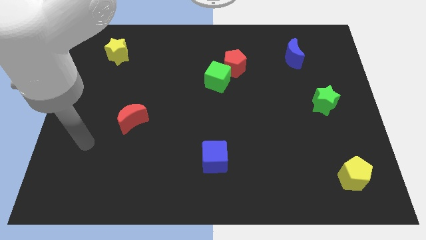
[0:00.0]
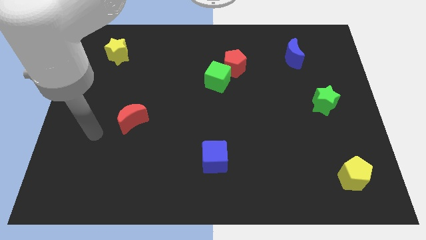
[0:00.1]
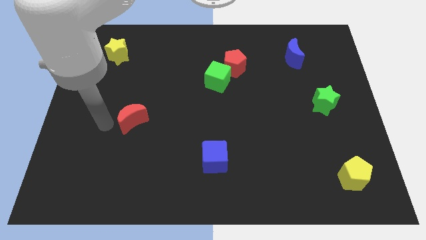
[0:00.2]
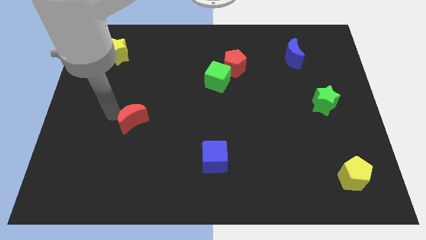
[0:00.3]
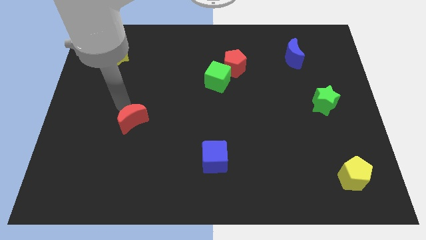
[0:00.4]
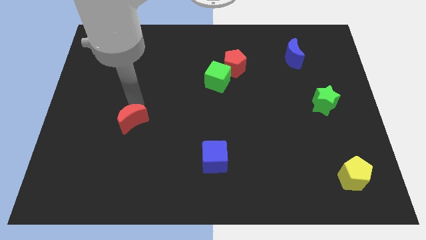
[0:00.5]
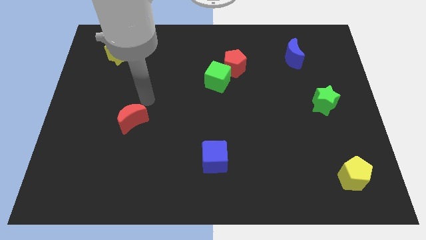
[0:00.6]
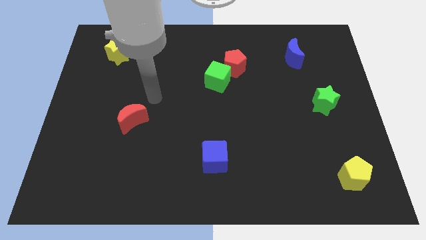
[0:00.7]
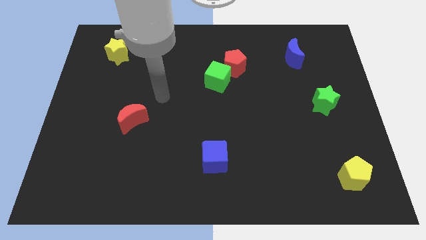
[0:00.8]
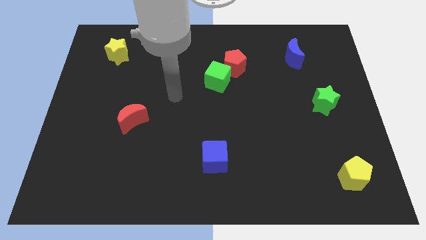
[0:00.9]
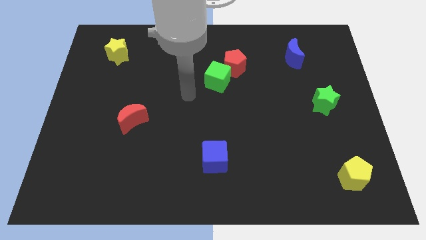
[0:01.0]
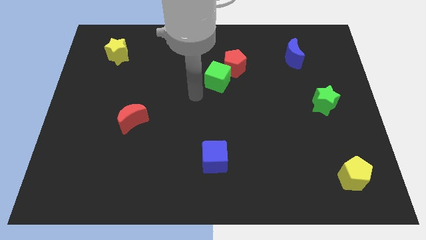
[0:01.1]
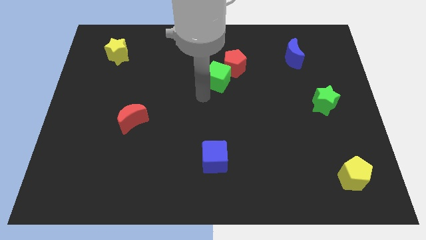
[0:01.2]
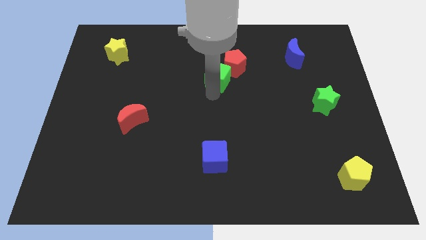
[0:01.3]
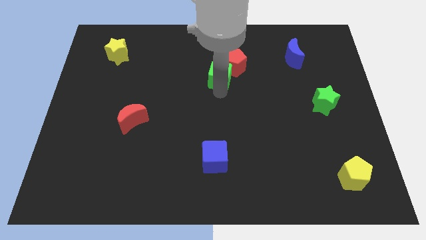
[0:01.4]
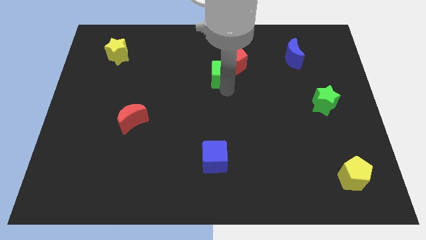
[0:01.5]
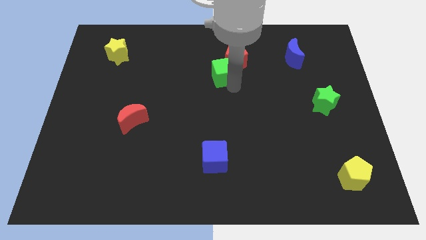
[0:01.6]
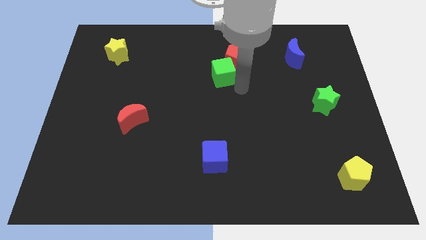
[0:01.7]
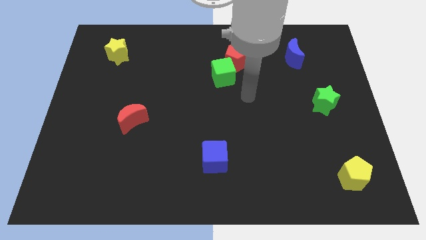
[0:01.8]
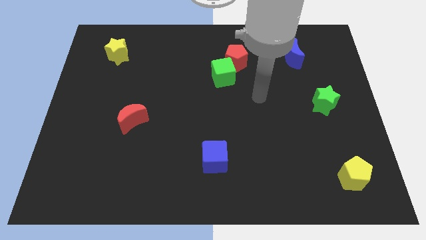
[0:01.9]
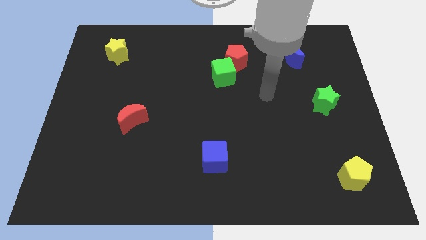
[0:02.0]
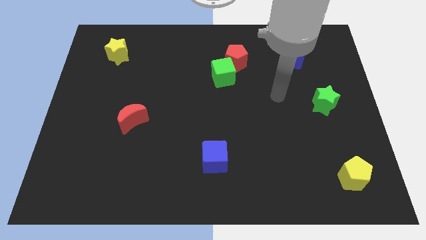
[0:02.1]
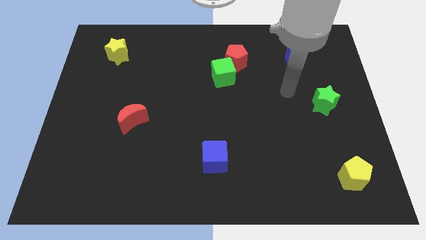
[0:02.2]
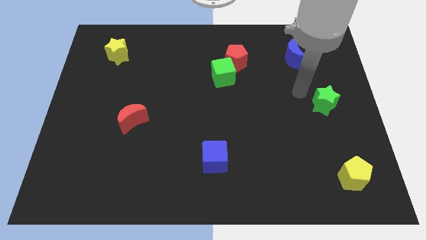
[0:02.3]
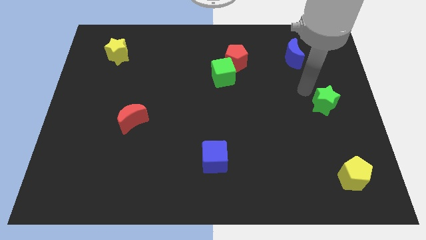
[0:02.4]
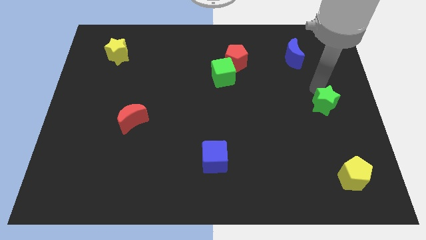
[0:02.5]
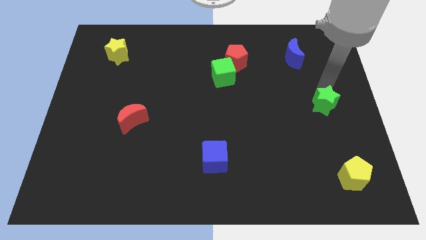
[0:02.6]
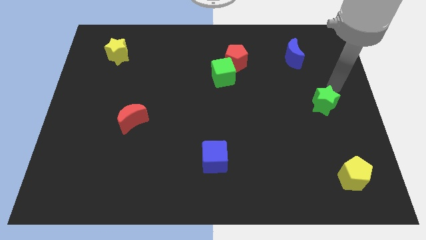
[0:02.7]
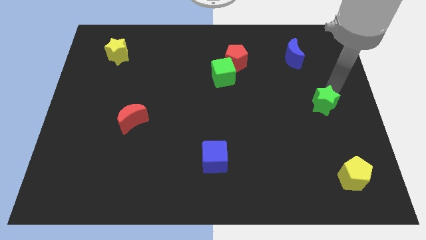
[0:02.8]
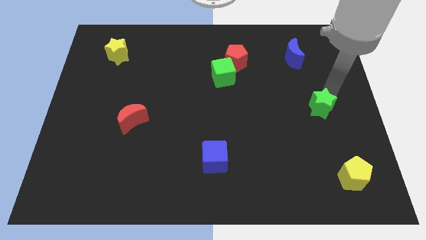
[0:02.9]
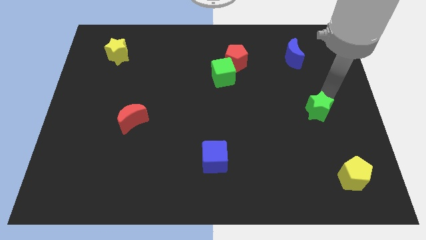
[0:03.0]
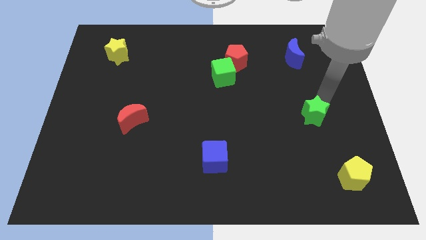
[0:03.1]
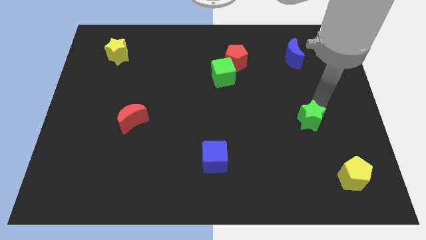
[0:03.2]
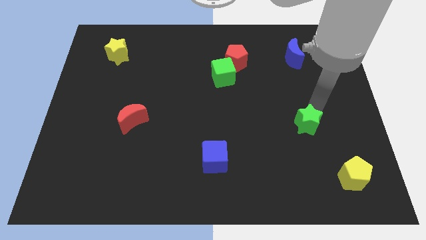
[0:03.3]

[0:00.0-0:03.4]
slightly slide the green star downwards and left diagonally

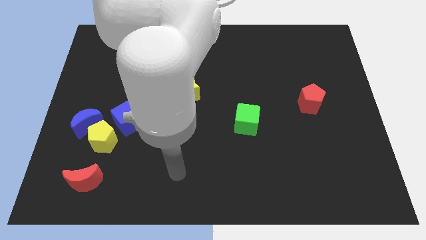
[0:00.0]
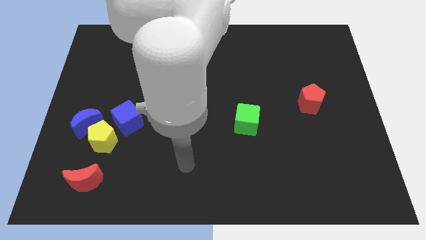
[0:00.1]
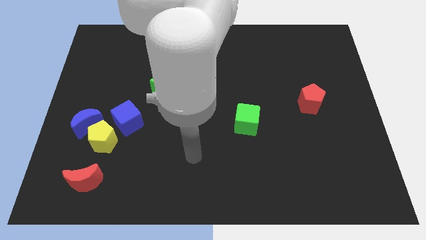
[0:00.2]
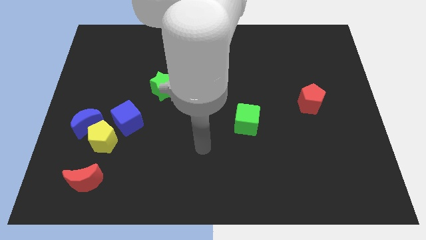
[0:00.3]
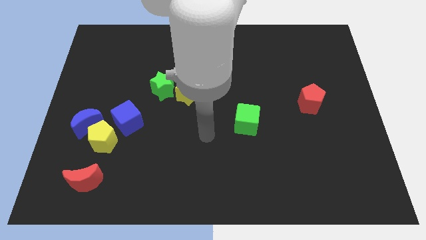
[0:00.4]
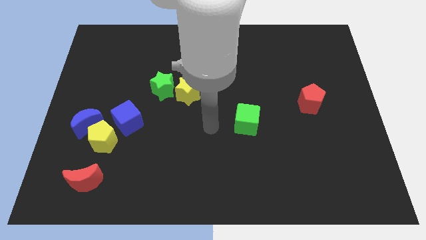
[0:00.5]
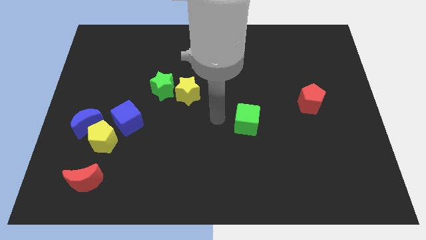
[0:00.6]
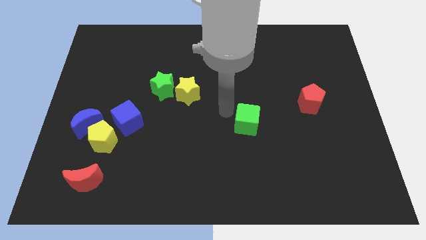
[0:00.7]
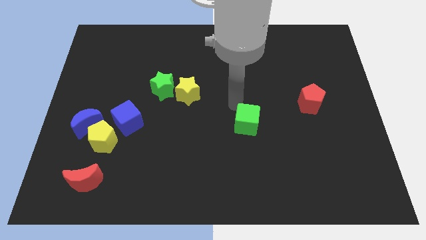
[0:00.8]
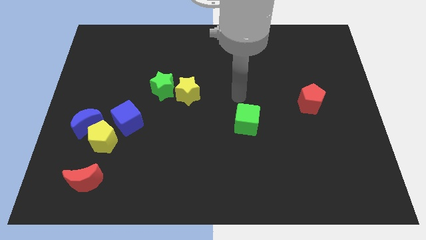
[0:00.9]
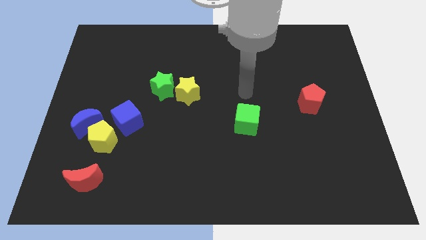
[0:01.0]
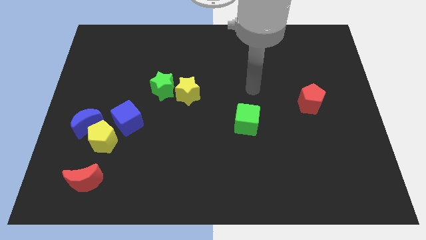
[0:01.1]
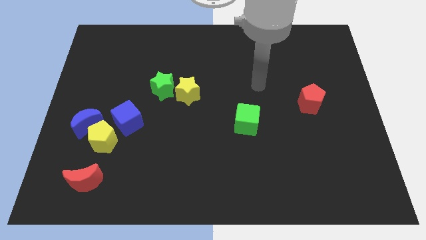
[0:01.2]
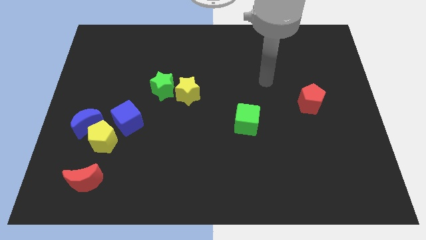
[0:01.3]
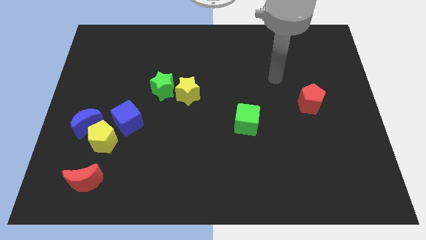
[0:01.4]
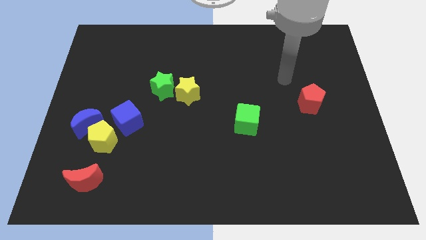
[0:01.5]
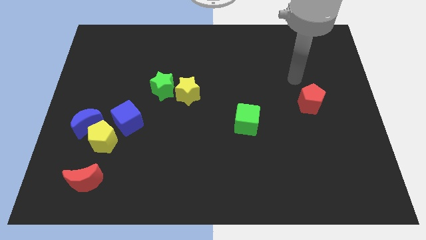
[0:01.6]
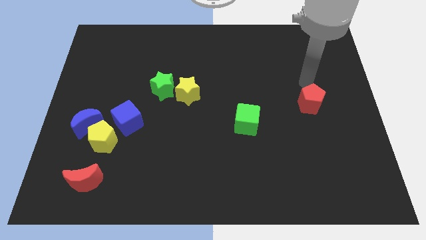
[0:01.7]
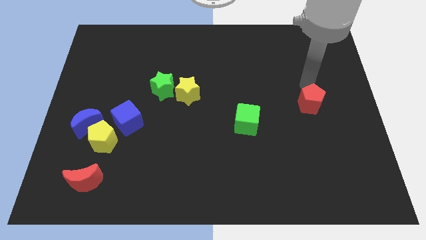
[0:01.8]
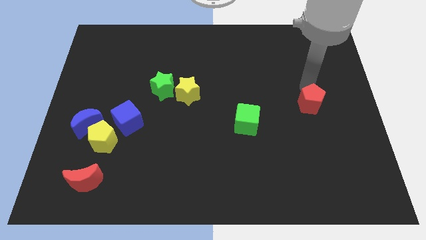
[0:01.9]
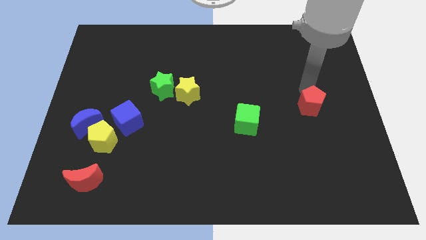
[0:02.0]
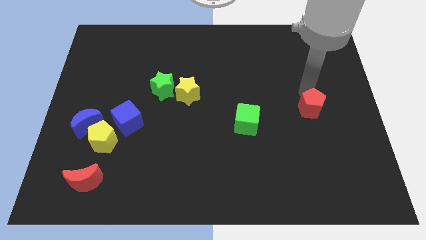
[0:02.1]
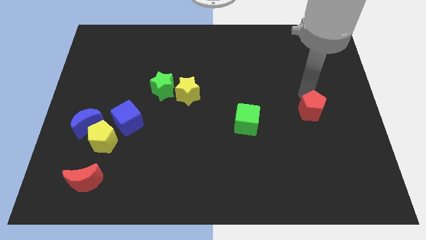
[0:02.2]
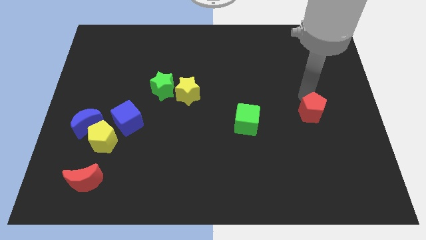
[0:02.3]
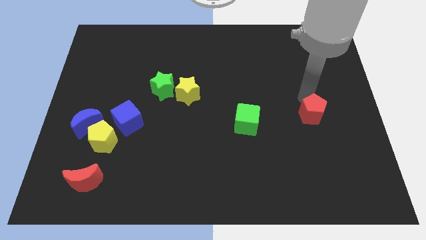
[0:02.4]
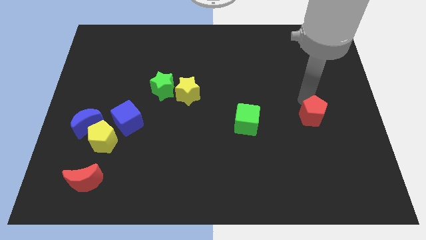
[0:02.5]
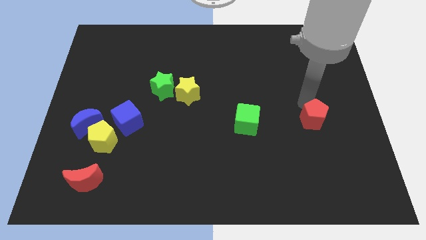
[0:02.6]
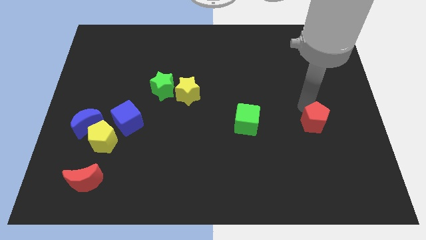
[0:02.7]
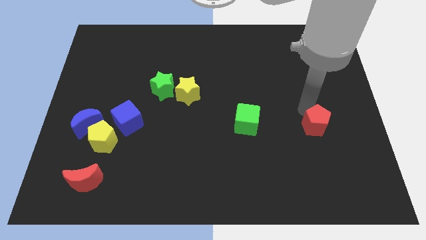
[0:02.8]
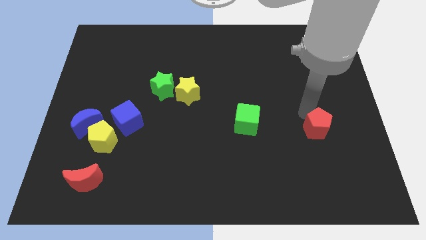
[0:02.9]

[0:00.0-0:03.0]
move the red pentagon down slightly

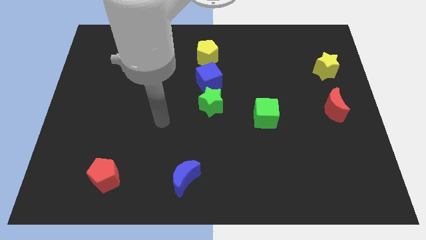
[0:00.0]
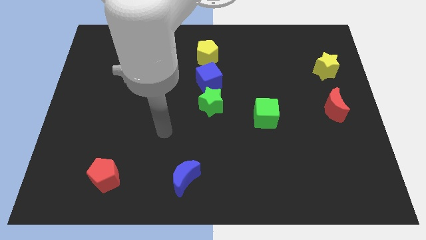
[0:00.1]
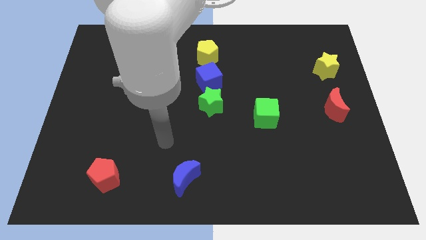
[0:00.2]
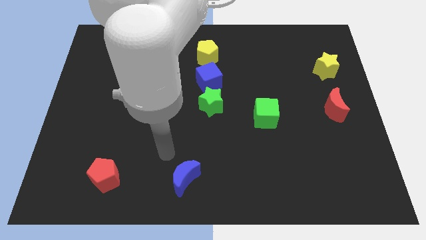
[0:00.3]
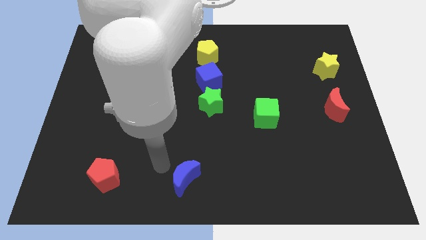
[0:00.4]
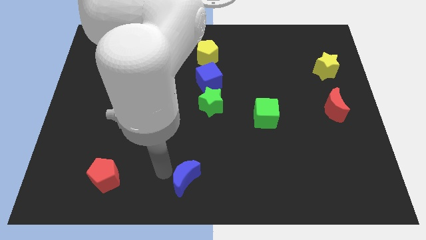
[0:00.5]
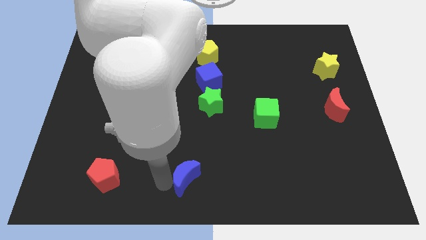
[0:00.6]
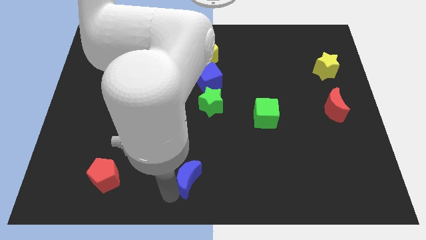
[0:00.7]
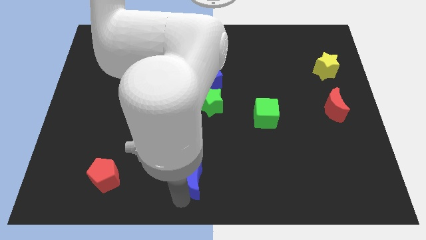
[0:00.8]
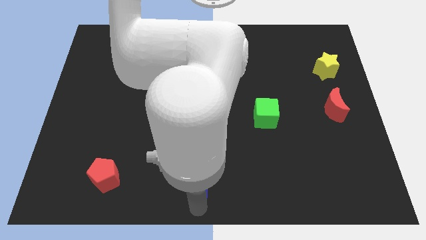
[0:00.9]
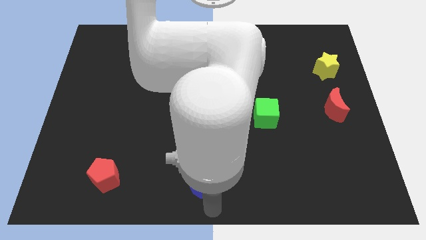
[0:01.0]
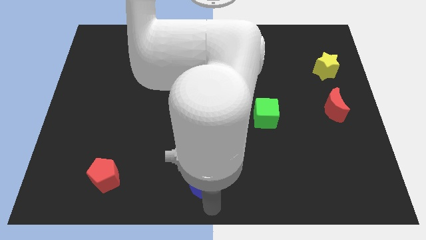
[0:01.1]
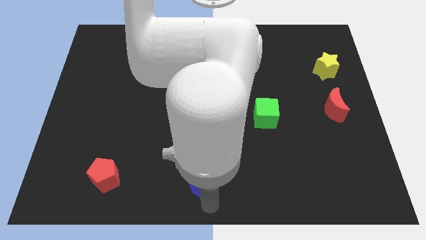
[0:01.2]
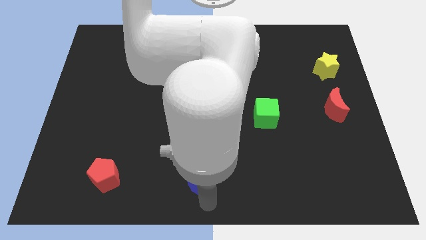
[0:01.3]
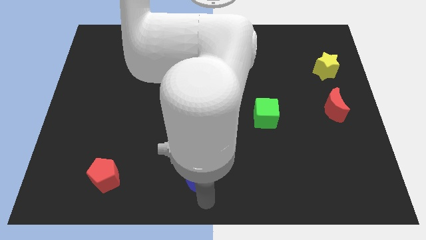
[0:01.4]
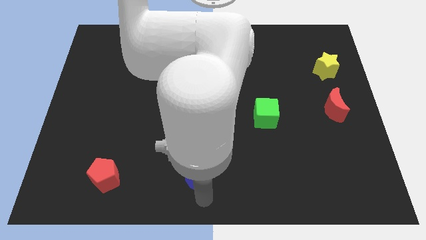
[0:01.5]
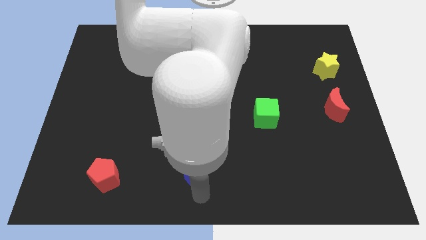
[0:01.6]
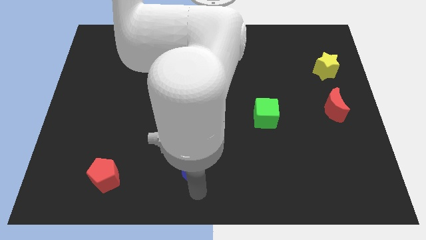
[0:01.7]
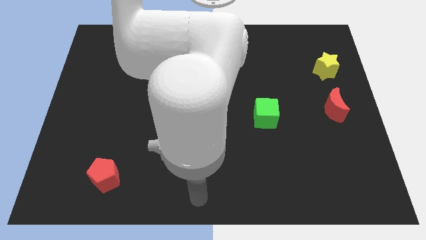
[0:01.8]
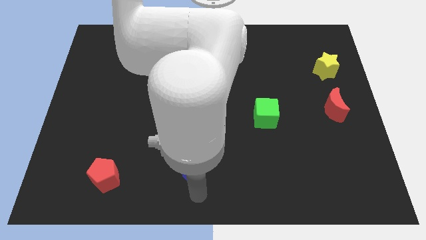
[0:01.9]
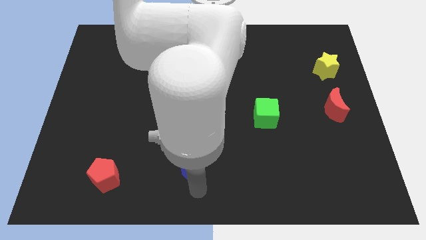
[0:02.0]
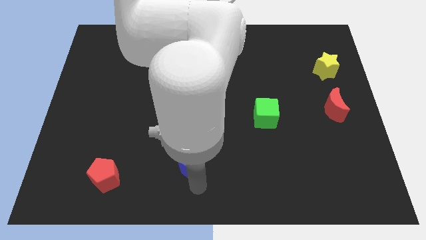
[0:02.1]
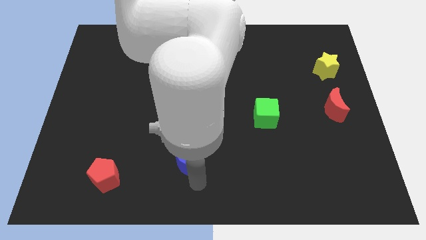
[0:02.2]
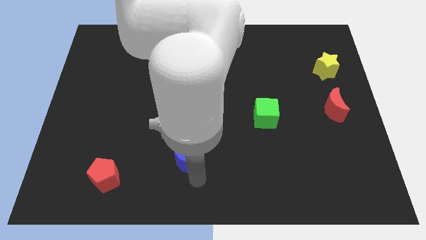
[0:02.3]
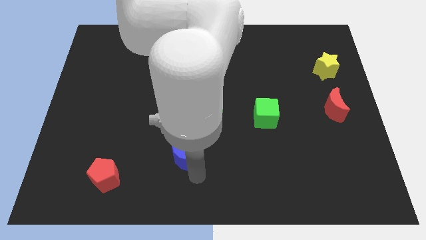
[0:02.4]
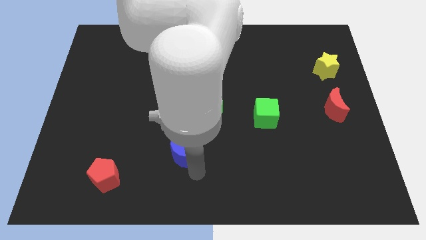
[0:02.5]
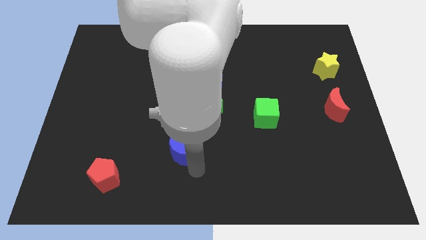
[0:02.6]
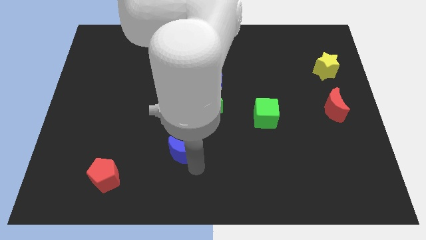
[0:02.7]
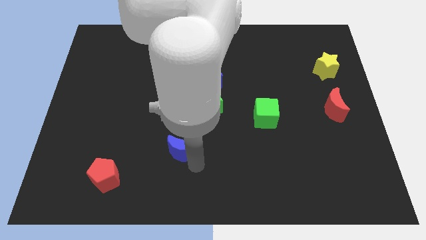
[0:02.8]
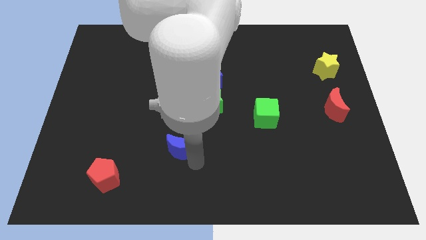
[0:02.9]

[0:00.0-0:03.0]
slightly push the blue moon upwards
